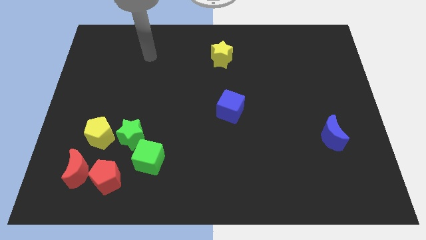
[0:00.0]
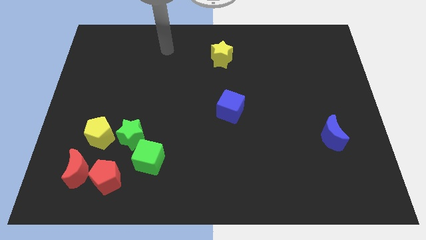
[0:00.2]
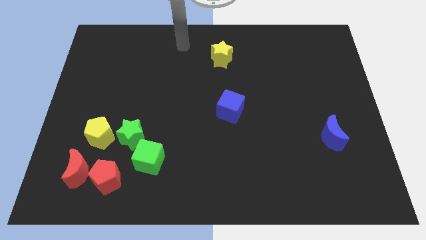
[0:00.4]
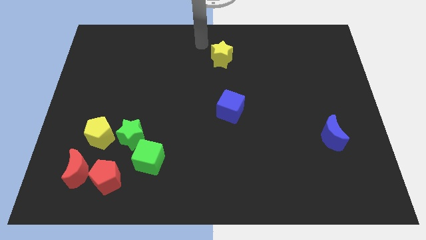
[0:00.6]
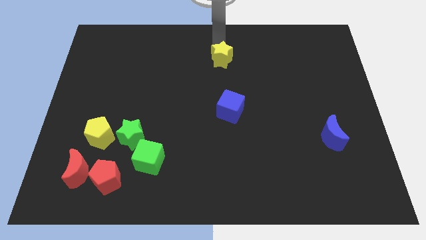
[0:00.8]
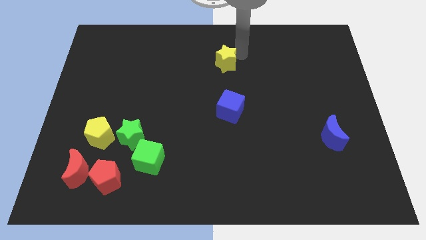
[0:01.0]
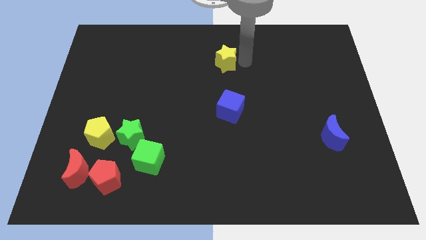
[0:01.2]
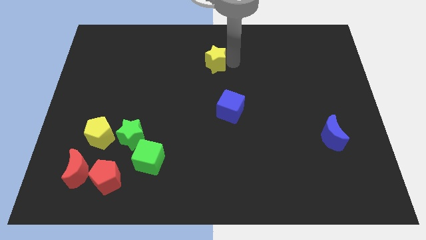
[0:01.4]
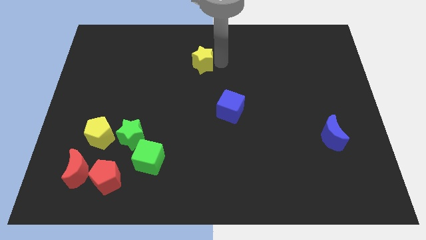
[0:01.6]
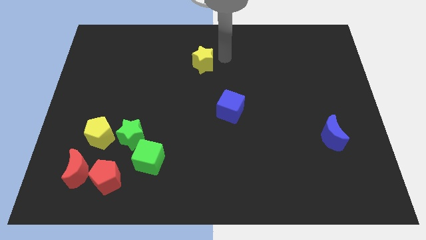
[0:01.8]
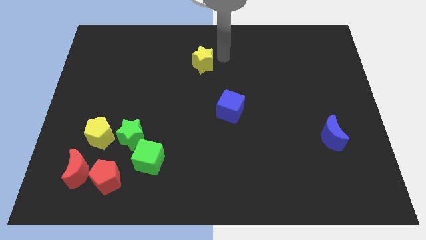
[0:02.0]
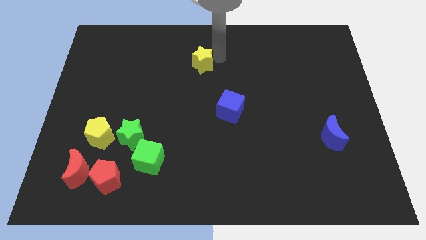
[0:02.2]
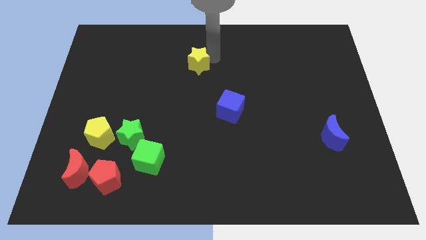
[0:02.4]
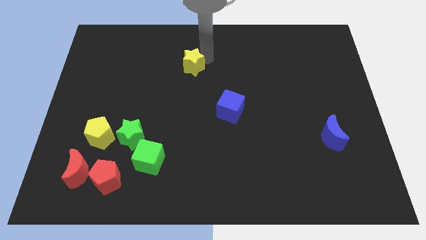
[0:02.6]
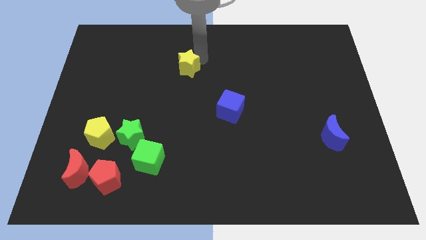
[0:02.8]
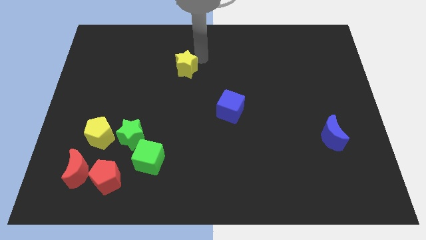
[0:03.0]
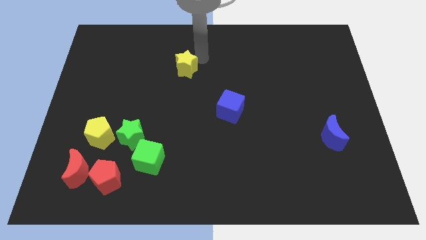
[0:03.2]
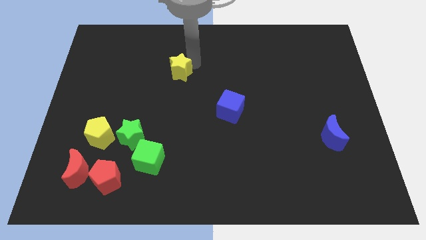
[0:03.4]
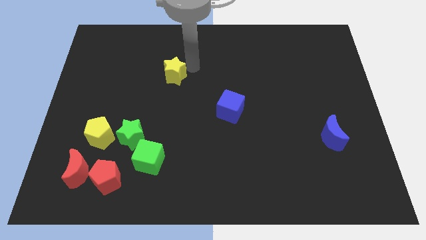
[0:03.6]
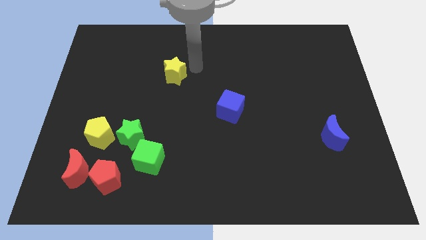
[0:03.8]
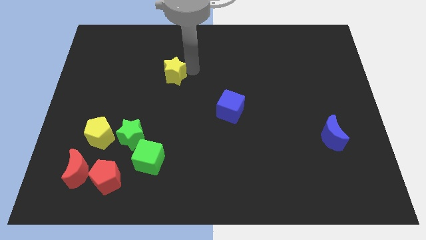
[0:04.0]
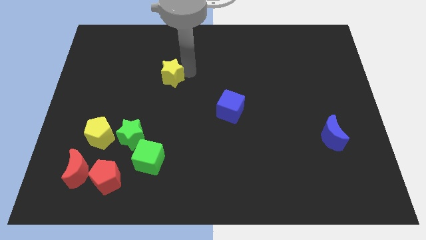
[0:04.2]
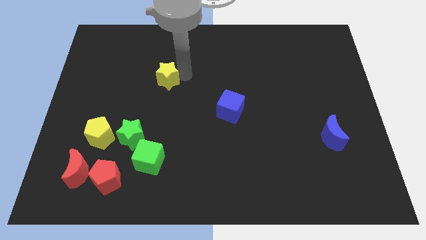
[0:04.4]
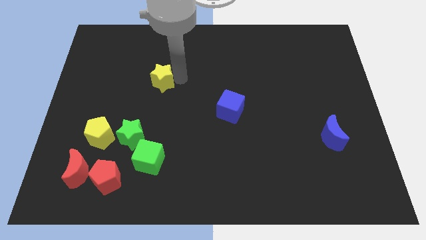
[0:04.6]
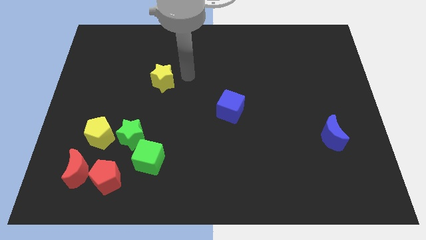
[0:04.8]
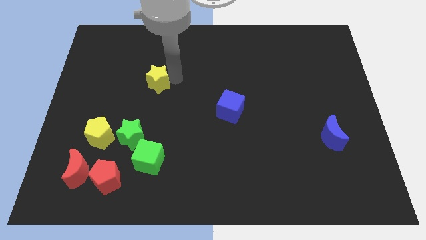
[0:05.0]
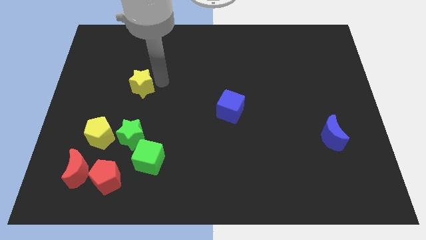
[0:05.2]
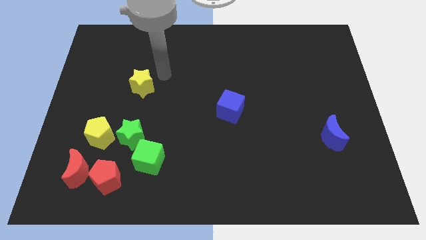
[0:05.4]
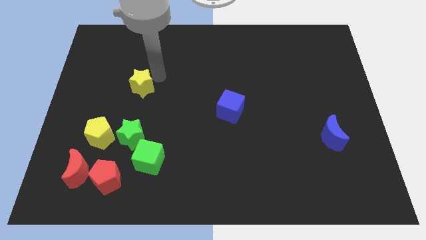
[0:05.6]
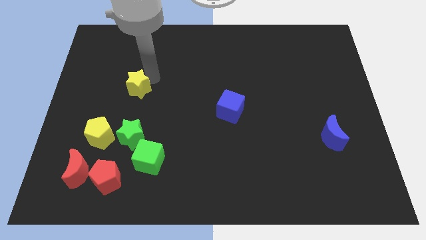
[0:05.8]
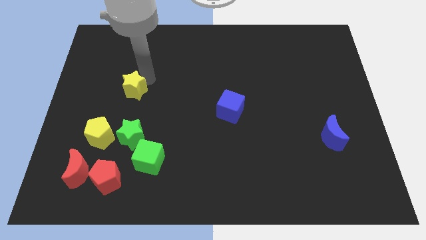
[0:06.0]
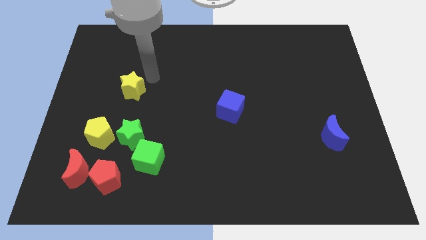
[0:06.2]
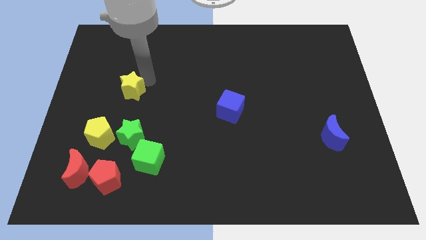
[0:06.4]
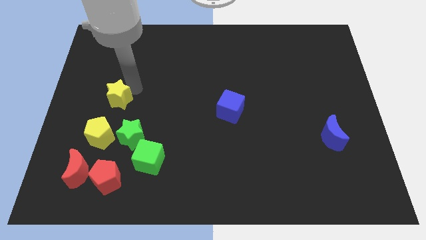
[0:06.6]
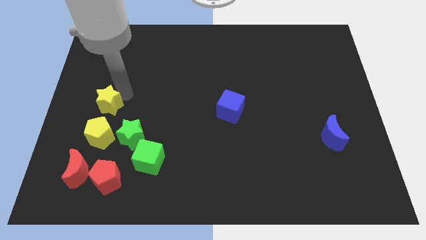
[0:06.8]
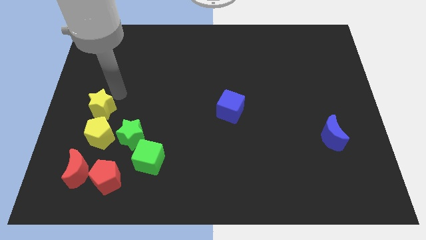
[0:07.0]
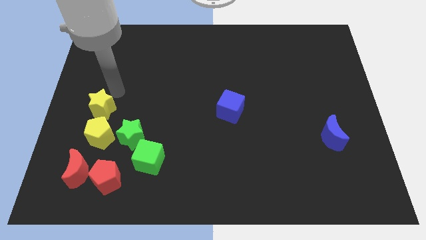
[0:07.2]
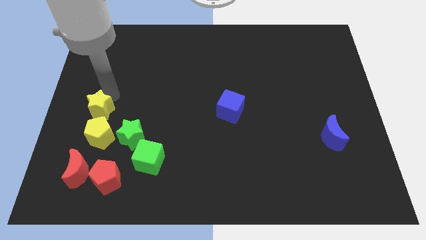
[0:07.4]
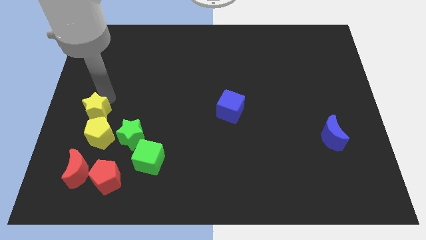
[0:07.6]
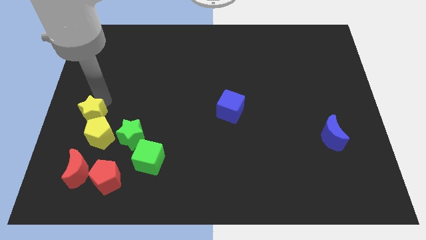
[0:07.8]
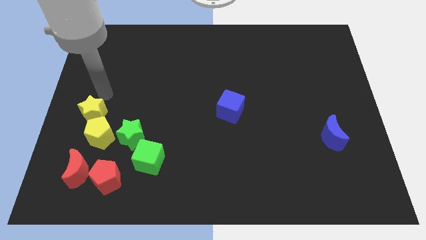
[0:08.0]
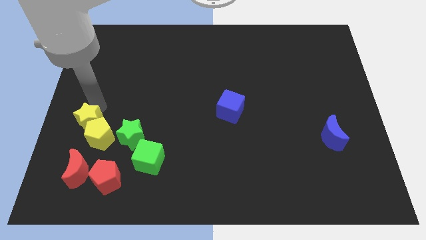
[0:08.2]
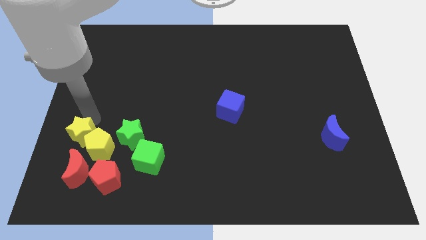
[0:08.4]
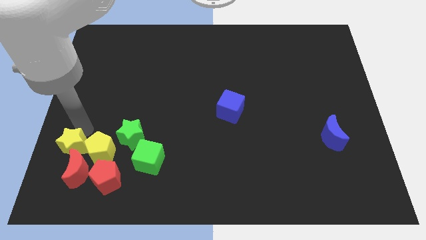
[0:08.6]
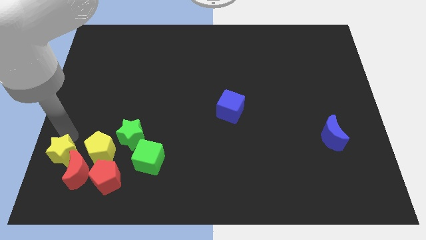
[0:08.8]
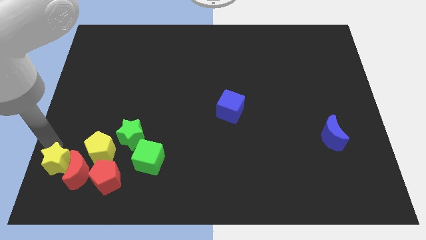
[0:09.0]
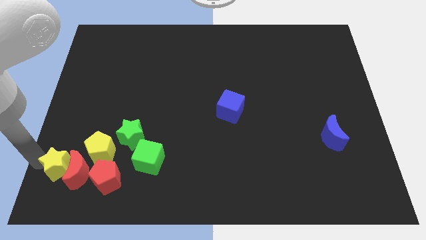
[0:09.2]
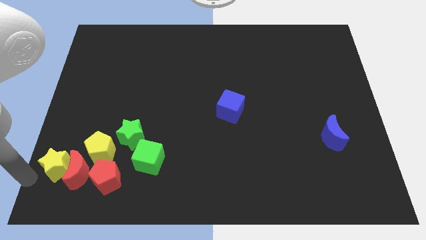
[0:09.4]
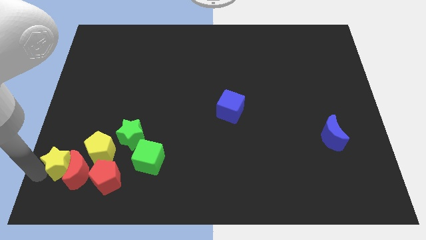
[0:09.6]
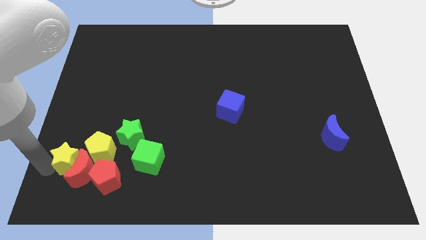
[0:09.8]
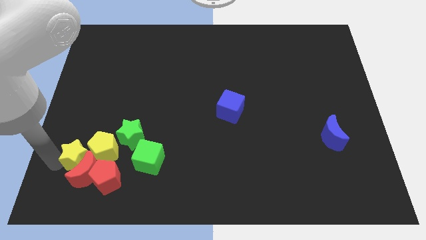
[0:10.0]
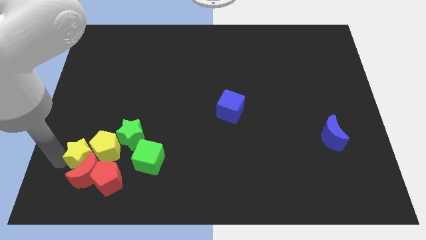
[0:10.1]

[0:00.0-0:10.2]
push the yellow star diagonally up and to the right of the red moon

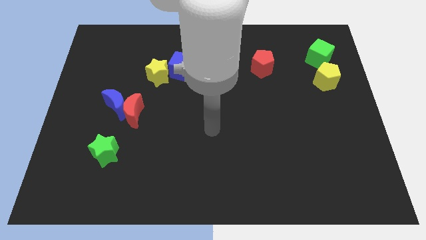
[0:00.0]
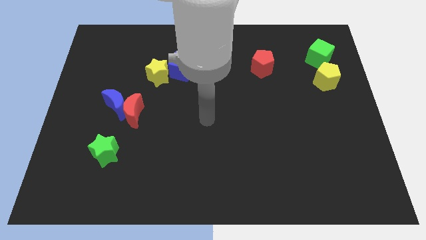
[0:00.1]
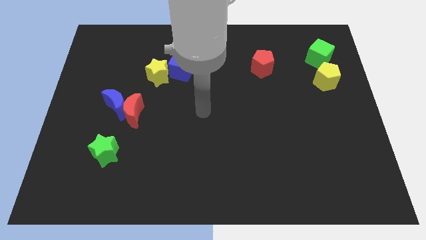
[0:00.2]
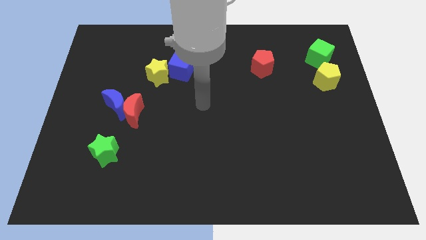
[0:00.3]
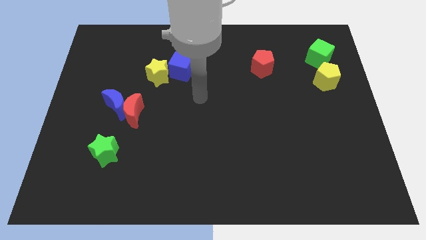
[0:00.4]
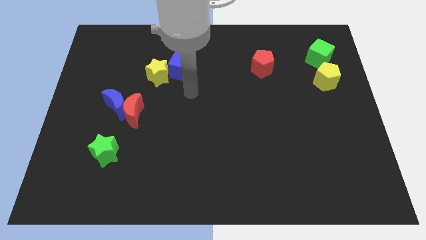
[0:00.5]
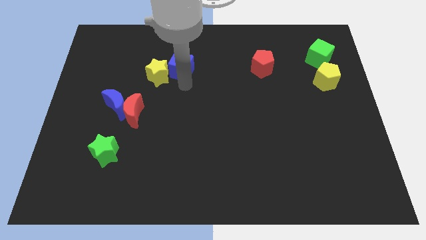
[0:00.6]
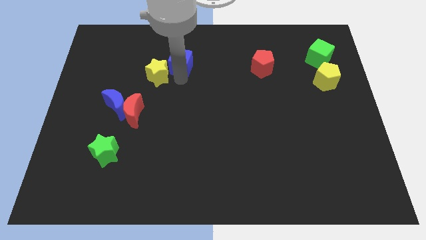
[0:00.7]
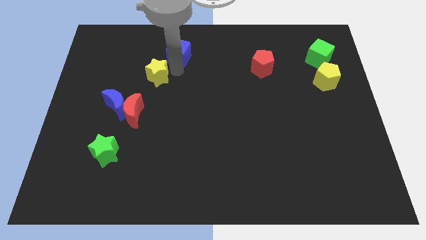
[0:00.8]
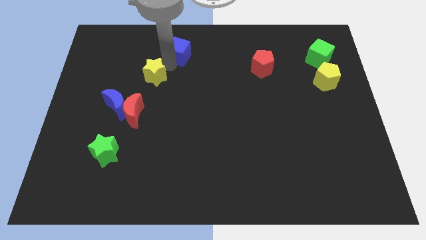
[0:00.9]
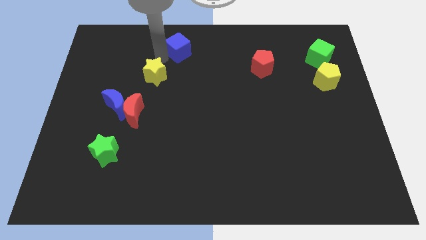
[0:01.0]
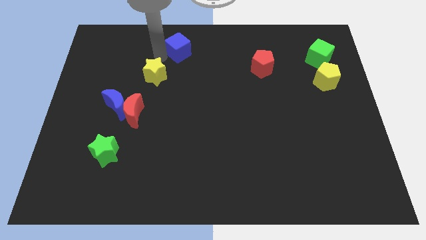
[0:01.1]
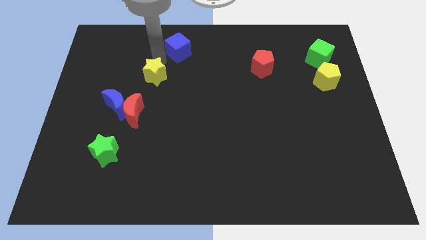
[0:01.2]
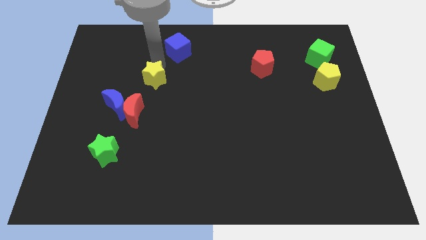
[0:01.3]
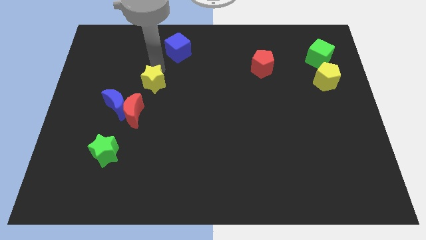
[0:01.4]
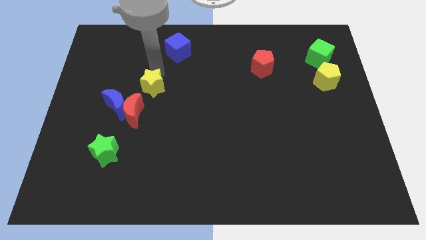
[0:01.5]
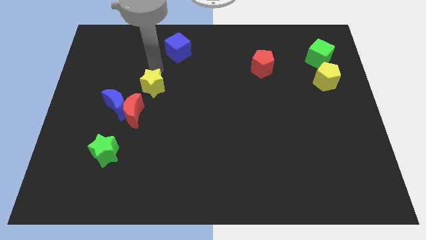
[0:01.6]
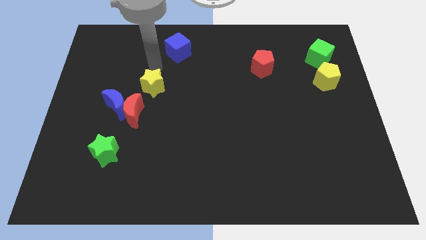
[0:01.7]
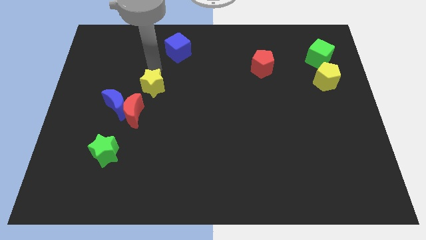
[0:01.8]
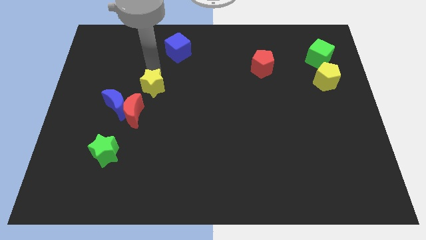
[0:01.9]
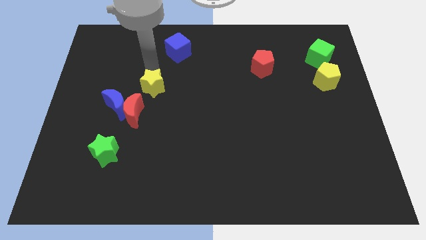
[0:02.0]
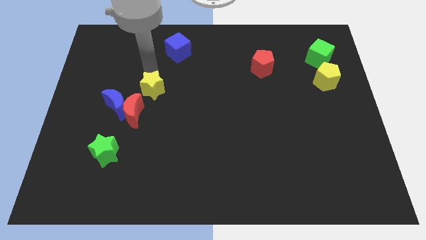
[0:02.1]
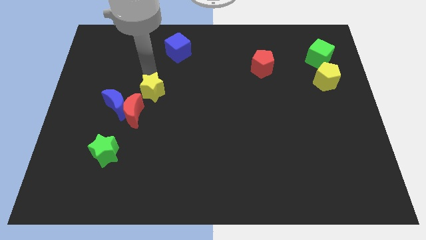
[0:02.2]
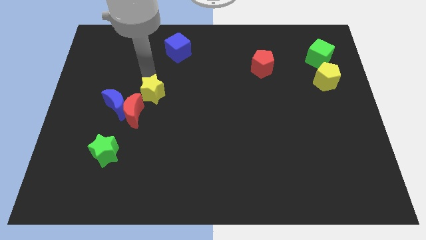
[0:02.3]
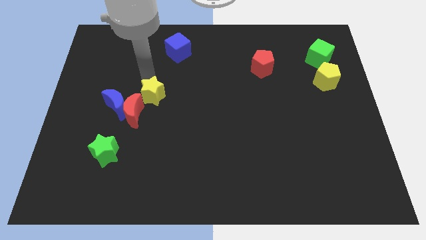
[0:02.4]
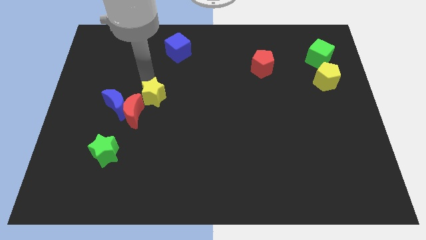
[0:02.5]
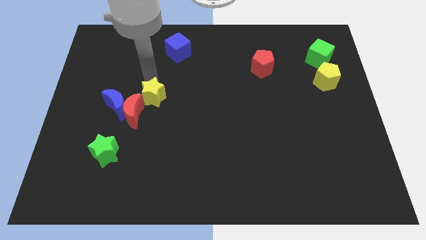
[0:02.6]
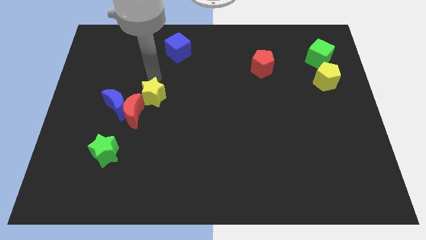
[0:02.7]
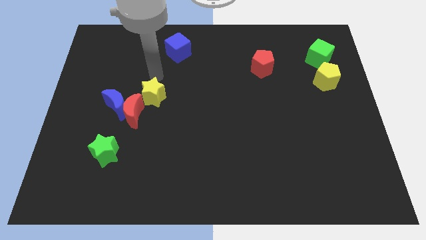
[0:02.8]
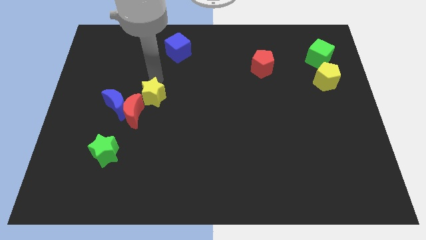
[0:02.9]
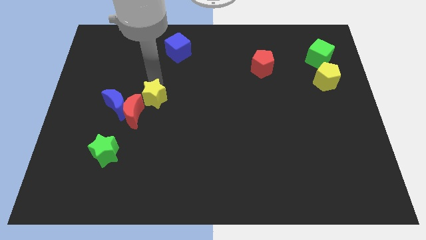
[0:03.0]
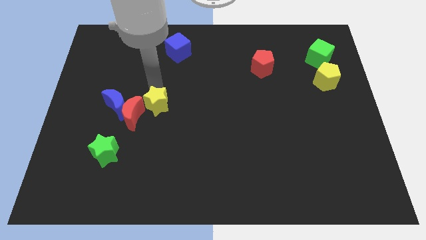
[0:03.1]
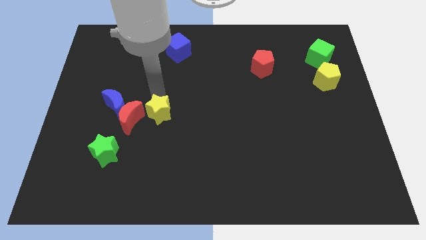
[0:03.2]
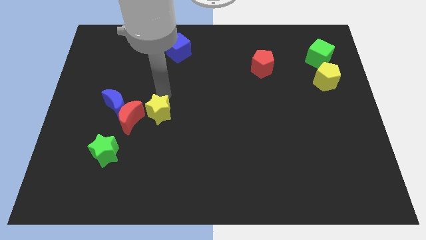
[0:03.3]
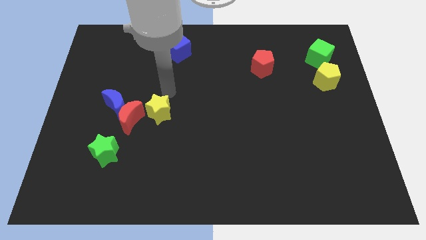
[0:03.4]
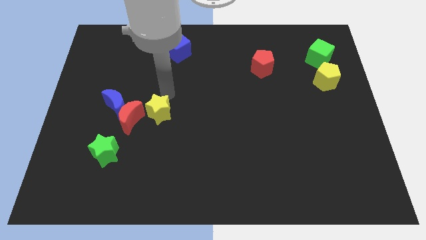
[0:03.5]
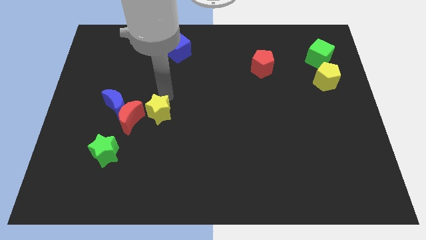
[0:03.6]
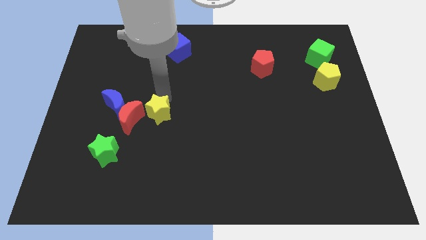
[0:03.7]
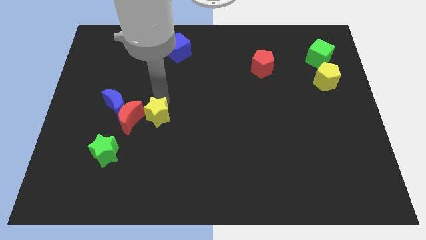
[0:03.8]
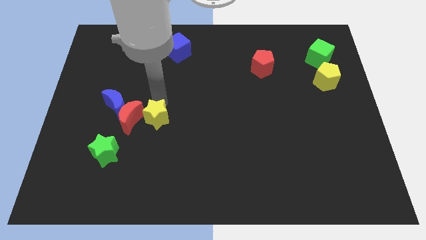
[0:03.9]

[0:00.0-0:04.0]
push the yellow star to the bottom right side of the red moon
